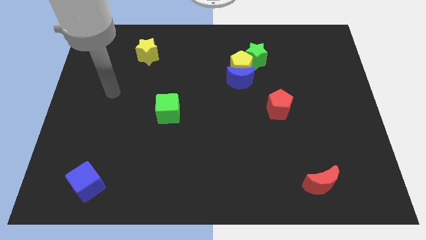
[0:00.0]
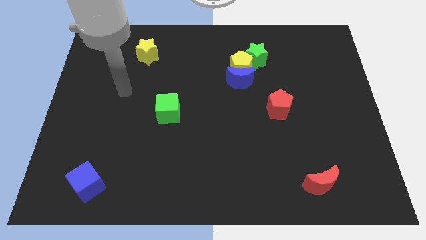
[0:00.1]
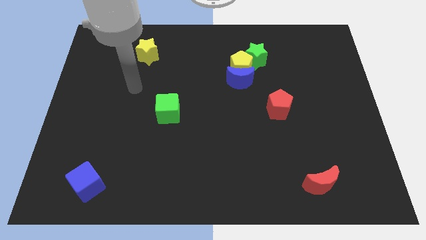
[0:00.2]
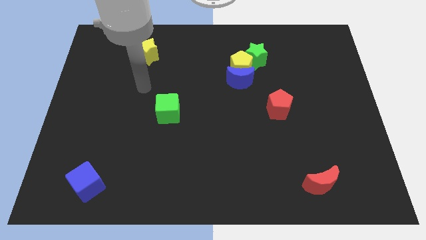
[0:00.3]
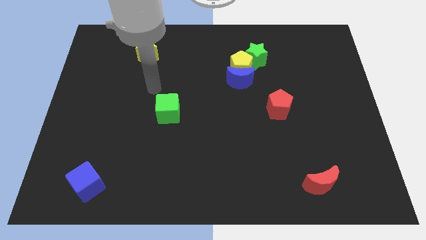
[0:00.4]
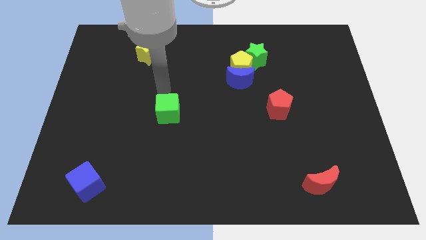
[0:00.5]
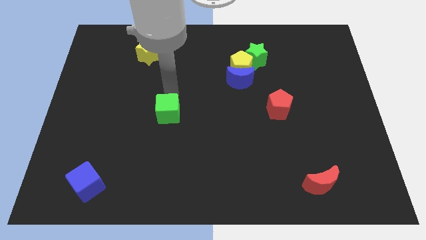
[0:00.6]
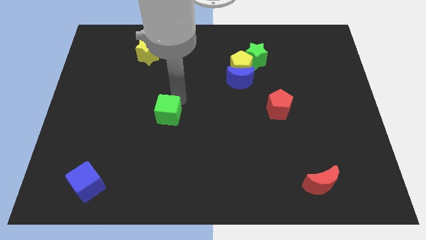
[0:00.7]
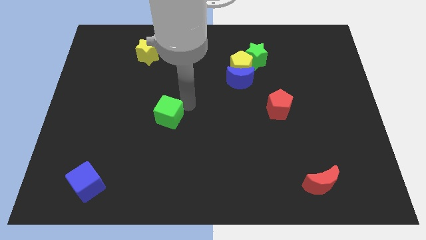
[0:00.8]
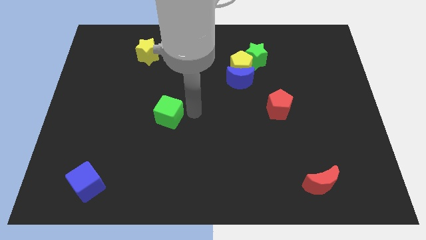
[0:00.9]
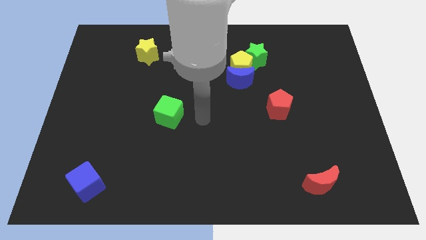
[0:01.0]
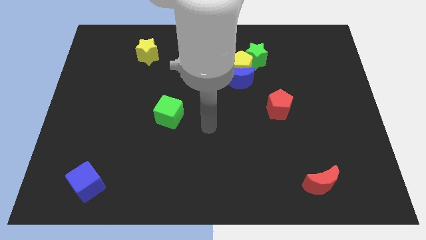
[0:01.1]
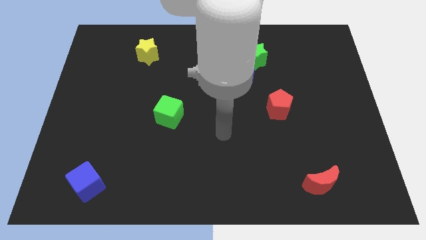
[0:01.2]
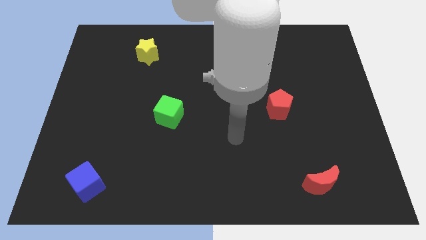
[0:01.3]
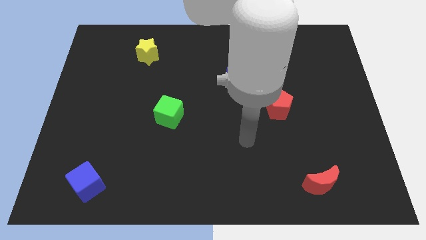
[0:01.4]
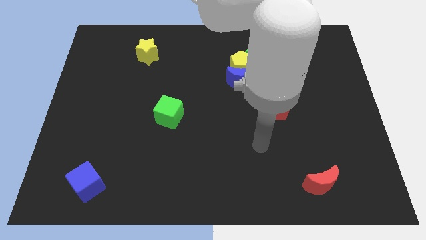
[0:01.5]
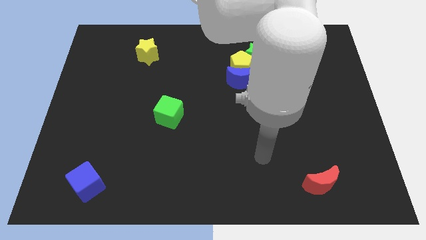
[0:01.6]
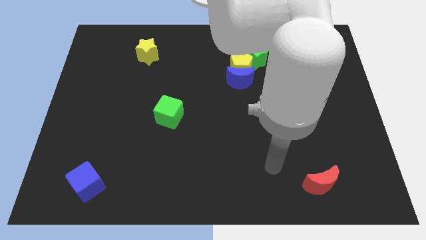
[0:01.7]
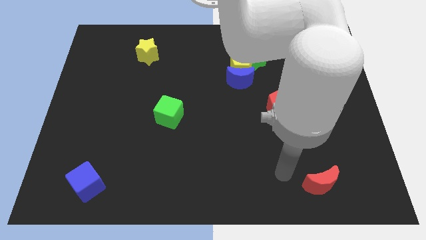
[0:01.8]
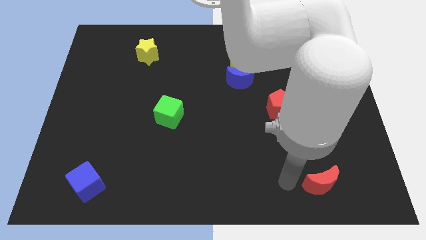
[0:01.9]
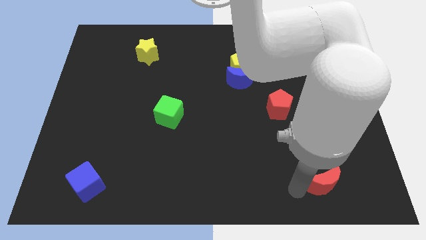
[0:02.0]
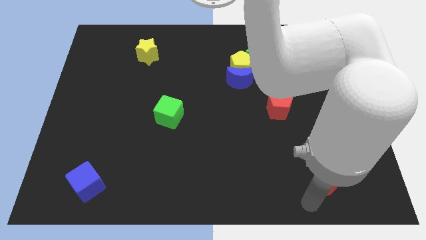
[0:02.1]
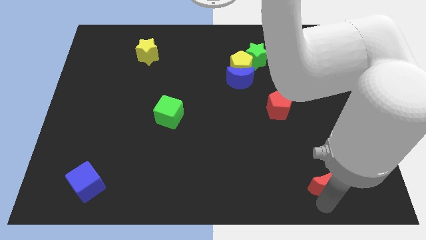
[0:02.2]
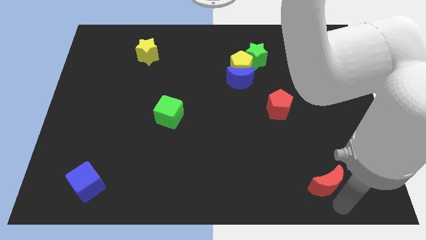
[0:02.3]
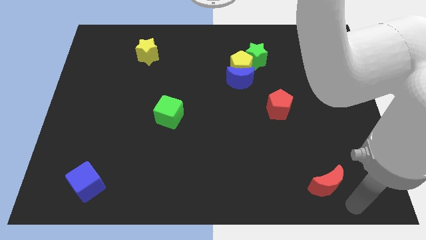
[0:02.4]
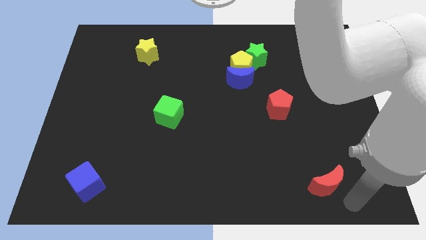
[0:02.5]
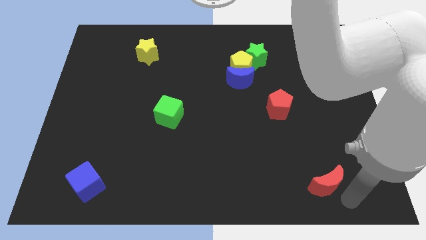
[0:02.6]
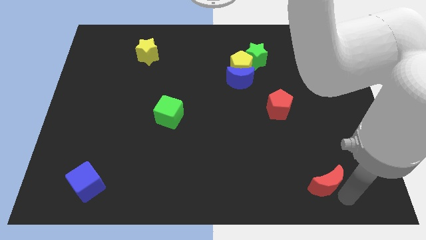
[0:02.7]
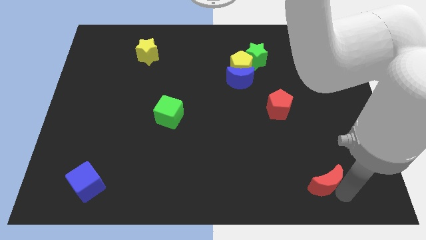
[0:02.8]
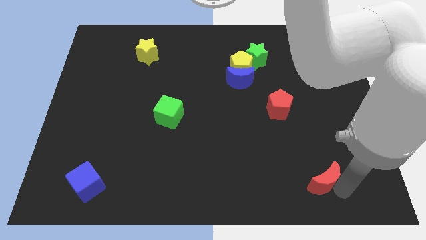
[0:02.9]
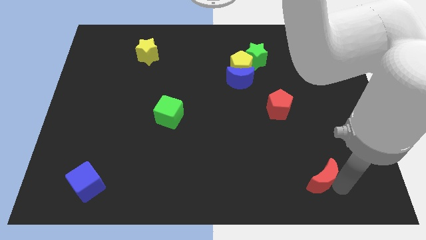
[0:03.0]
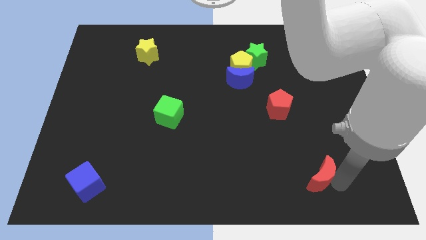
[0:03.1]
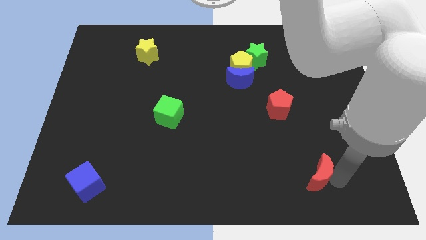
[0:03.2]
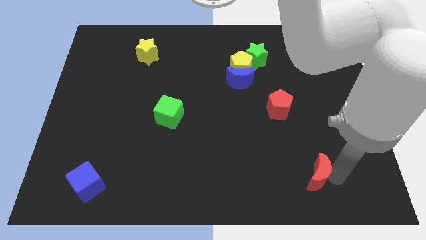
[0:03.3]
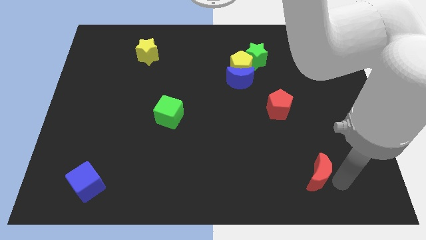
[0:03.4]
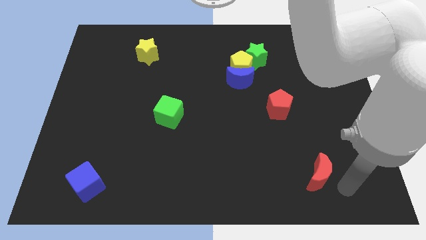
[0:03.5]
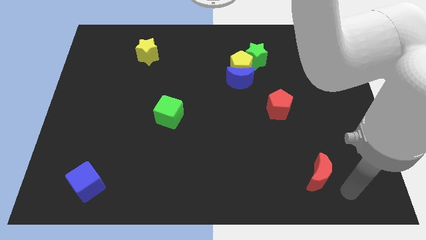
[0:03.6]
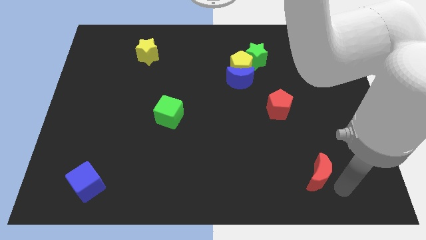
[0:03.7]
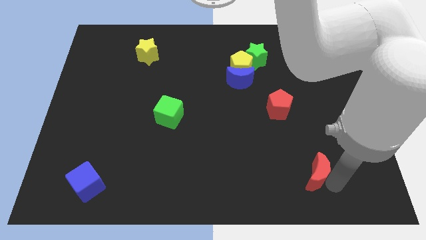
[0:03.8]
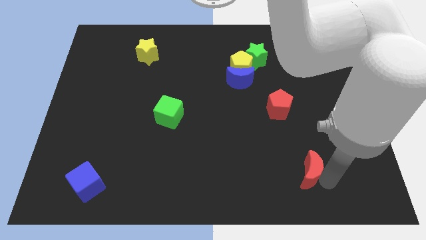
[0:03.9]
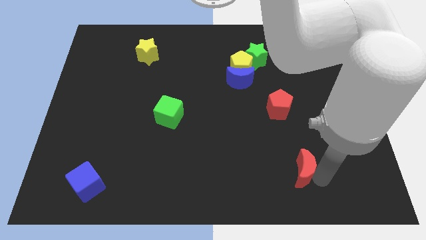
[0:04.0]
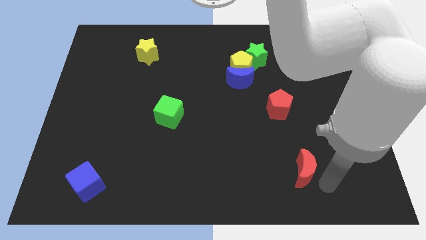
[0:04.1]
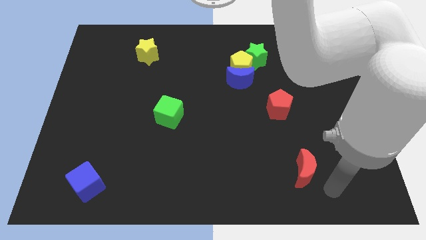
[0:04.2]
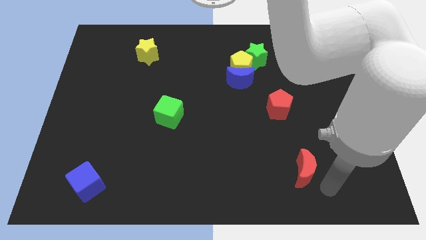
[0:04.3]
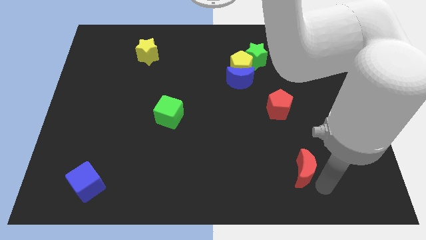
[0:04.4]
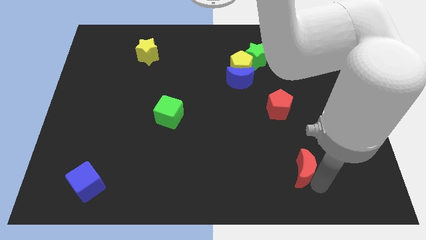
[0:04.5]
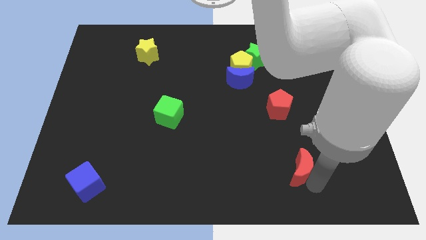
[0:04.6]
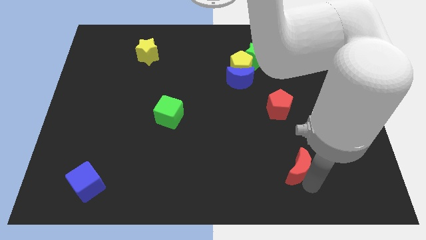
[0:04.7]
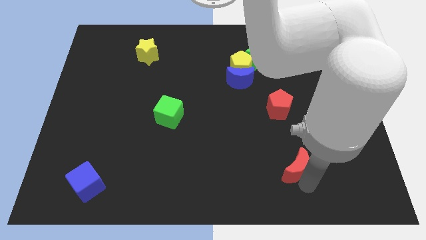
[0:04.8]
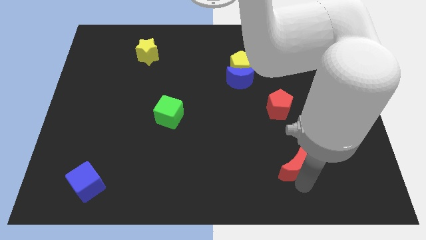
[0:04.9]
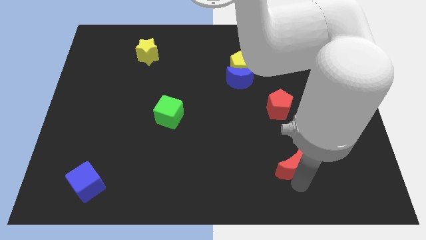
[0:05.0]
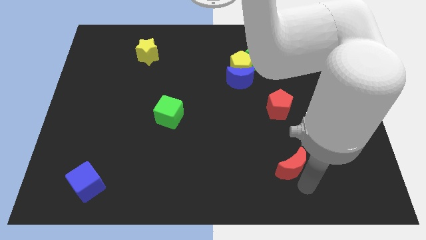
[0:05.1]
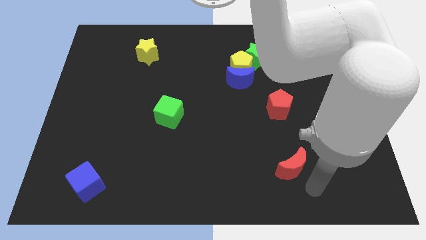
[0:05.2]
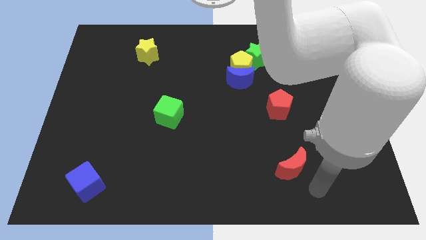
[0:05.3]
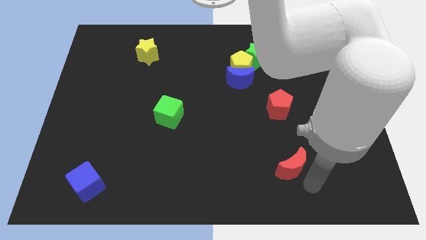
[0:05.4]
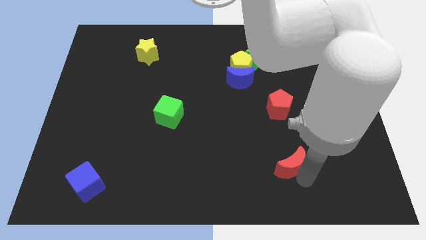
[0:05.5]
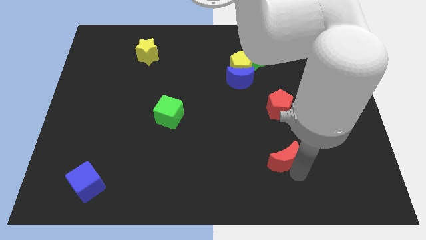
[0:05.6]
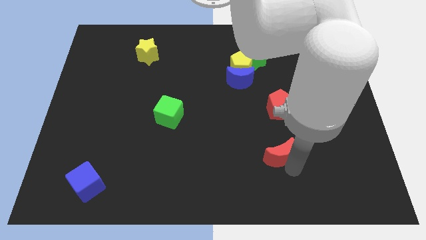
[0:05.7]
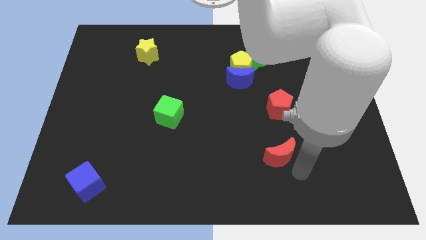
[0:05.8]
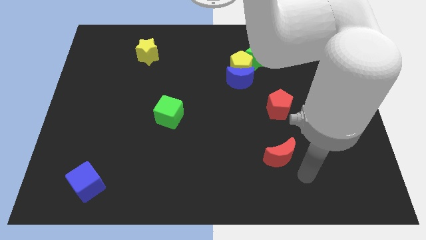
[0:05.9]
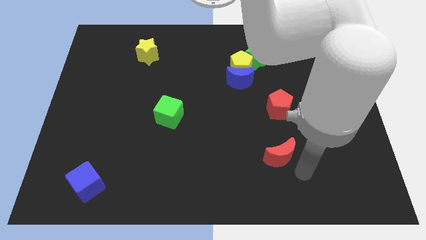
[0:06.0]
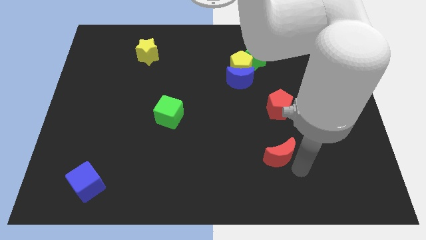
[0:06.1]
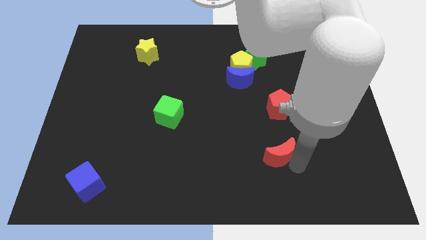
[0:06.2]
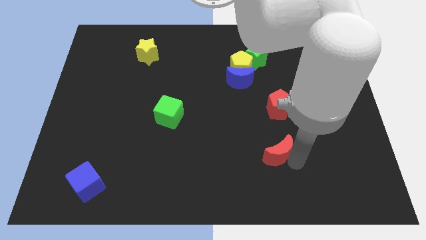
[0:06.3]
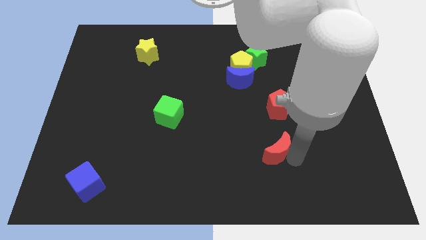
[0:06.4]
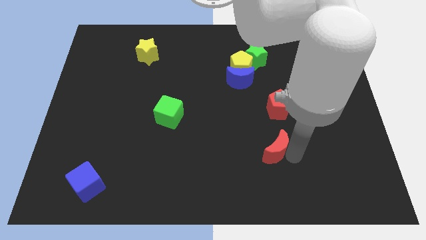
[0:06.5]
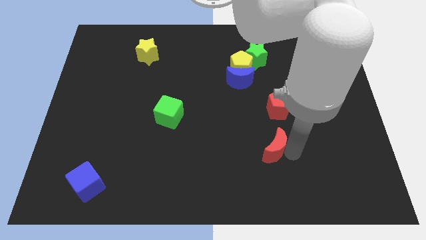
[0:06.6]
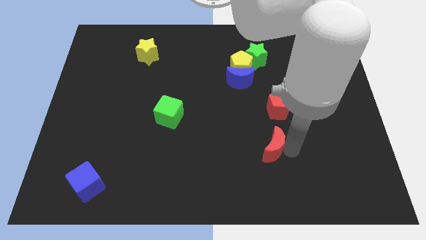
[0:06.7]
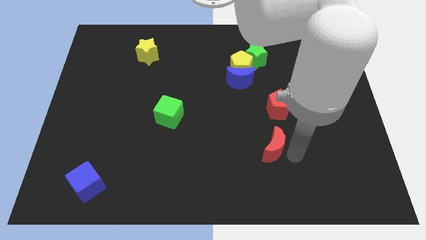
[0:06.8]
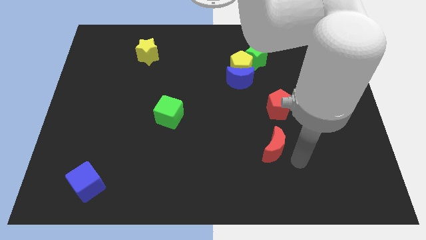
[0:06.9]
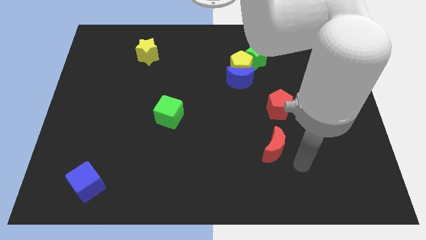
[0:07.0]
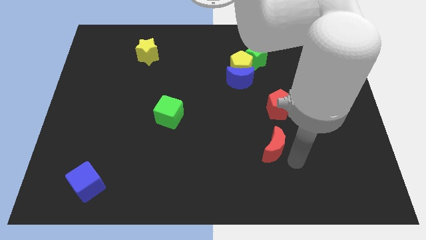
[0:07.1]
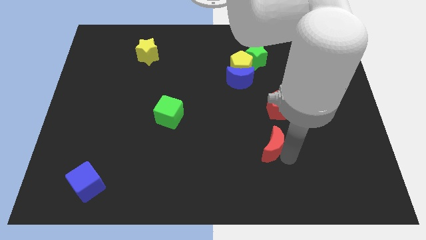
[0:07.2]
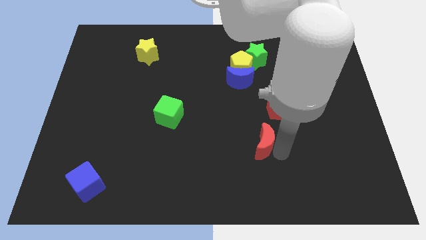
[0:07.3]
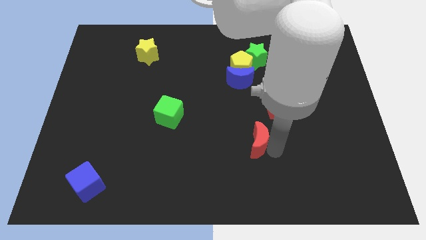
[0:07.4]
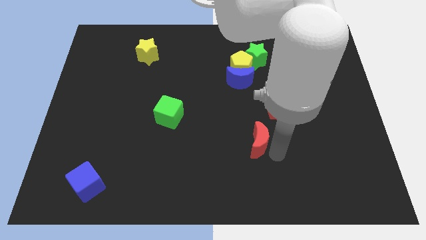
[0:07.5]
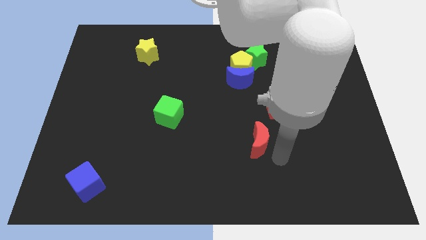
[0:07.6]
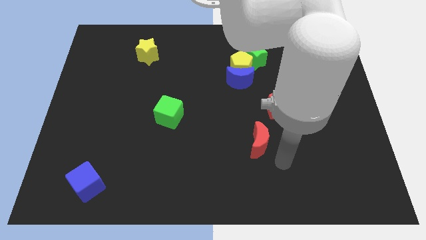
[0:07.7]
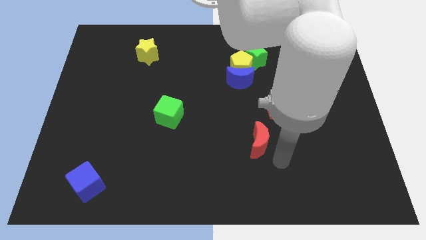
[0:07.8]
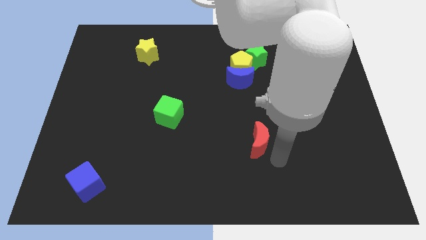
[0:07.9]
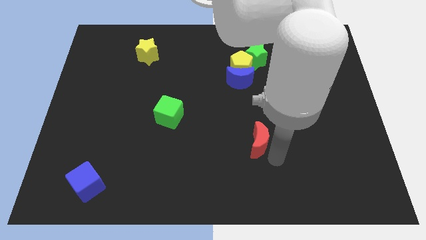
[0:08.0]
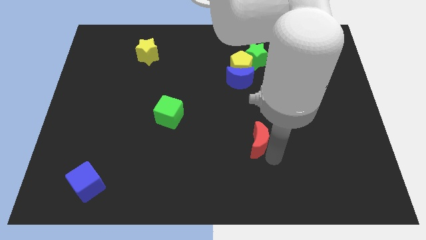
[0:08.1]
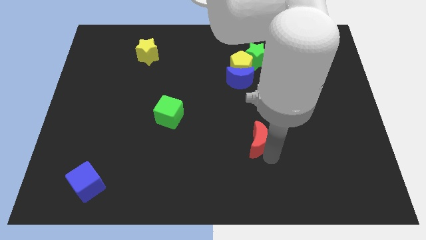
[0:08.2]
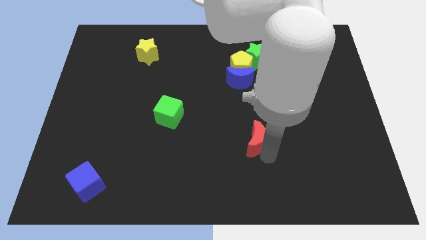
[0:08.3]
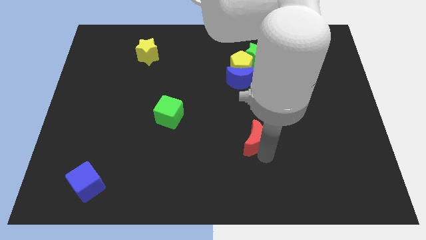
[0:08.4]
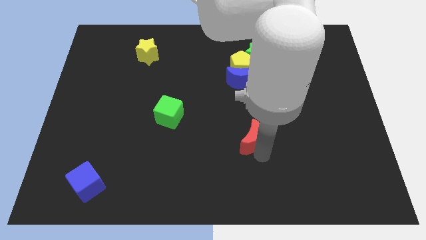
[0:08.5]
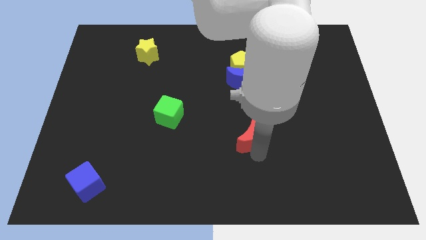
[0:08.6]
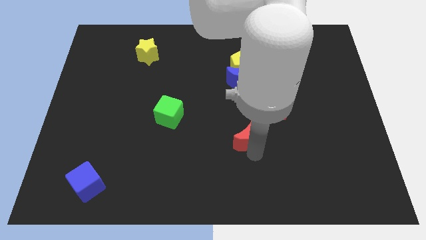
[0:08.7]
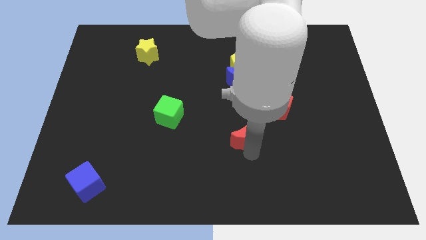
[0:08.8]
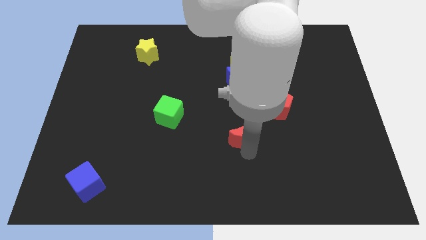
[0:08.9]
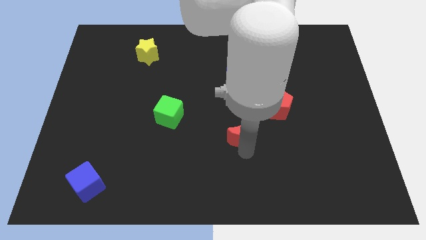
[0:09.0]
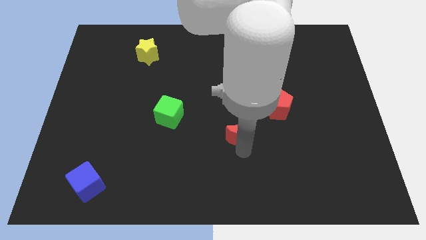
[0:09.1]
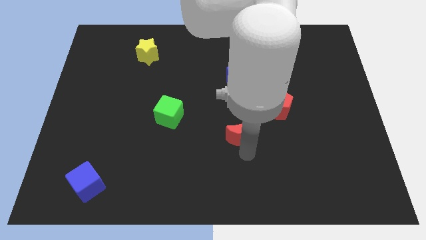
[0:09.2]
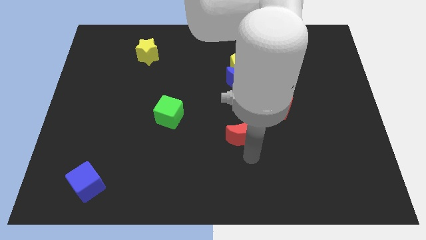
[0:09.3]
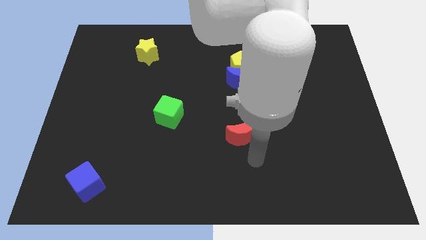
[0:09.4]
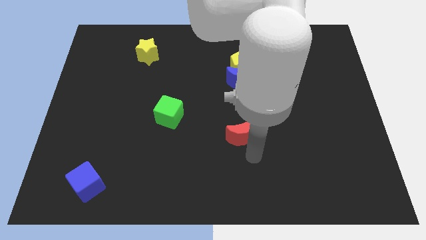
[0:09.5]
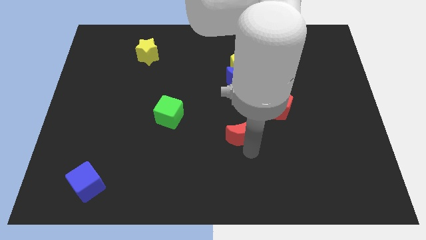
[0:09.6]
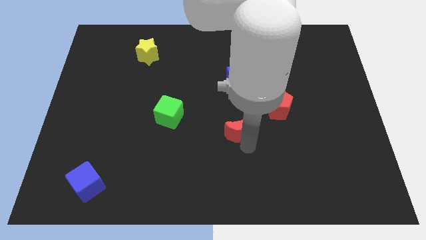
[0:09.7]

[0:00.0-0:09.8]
slide the red moon up and then left
